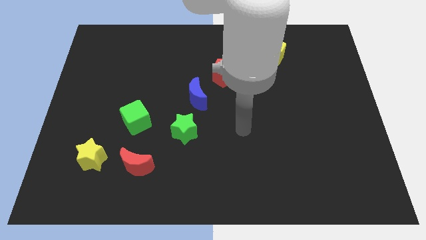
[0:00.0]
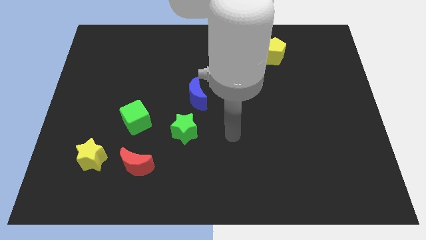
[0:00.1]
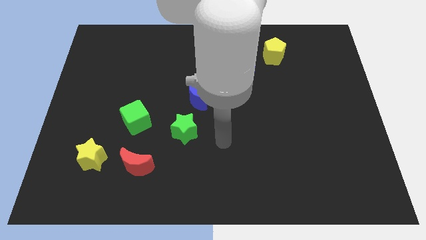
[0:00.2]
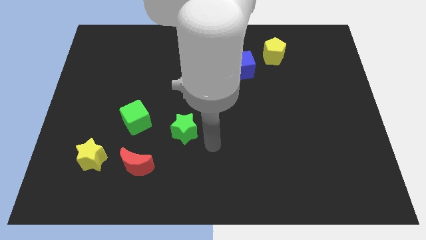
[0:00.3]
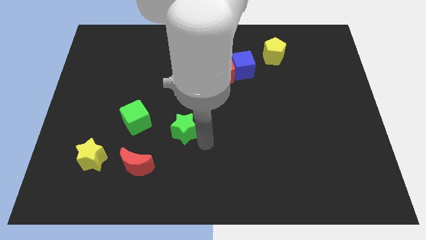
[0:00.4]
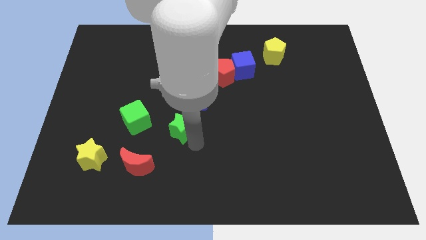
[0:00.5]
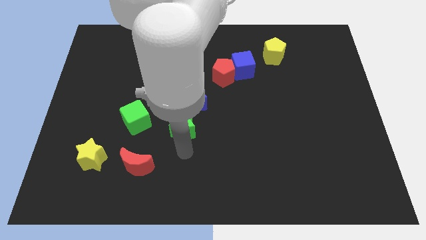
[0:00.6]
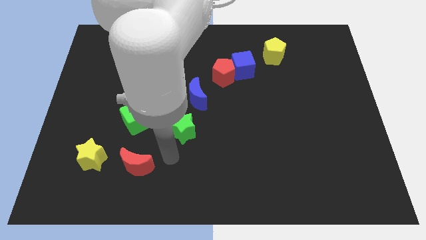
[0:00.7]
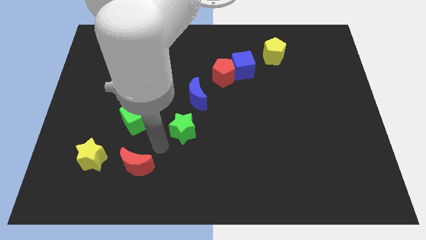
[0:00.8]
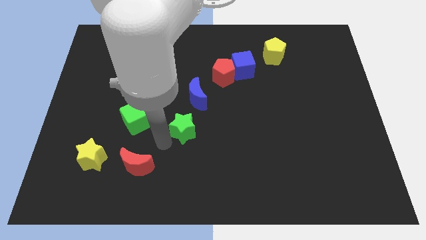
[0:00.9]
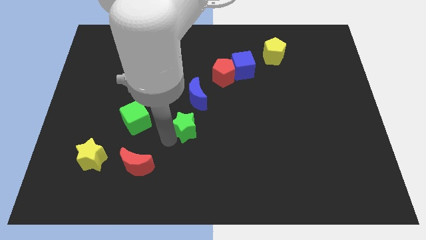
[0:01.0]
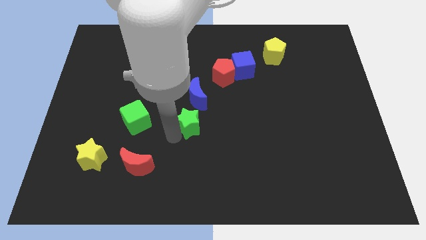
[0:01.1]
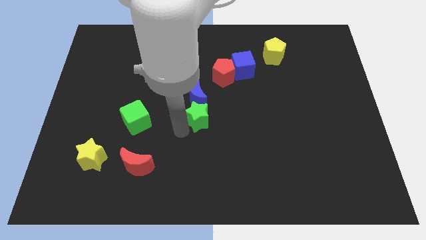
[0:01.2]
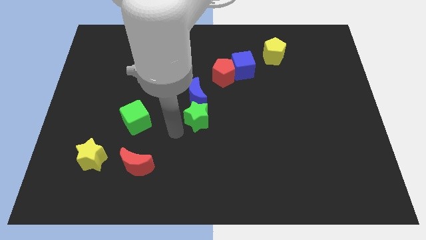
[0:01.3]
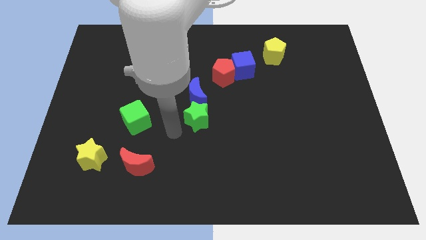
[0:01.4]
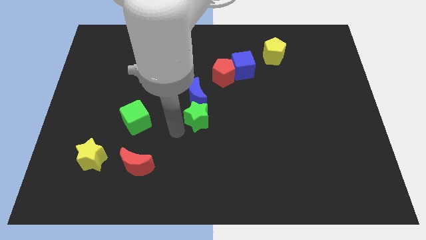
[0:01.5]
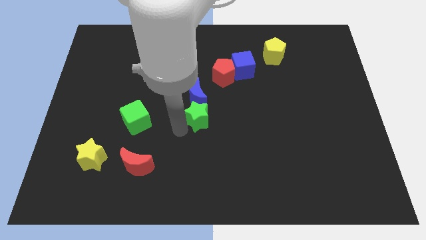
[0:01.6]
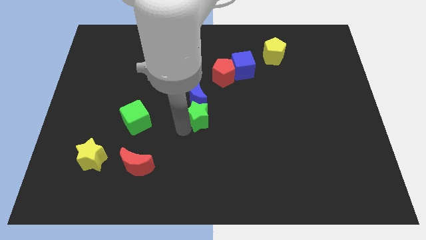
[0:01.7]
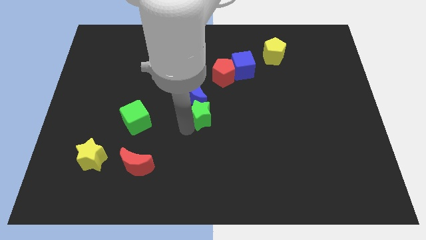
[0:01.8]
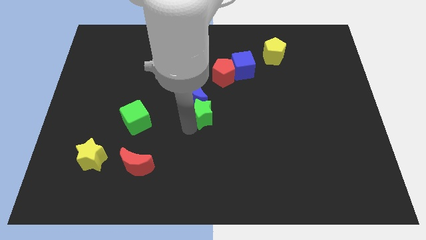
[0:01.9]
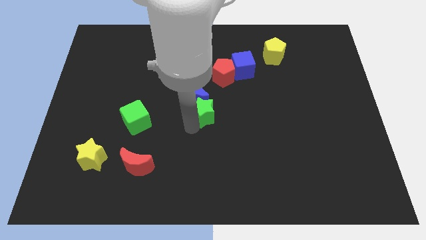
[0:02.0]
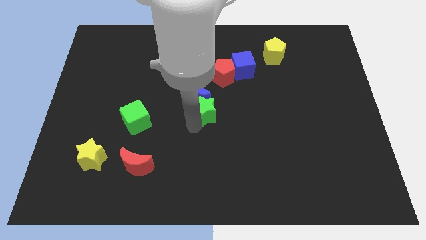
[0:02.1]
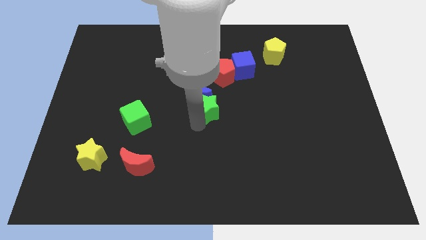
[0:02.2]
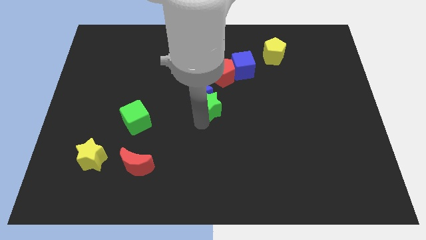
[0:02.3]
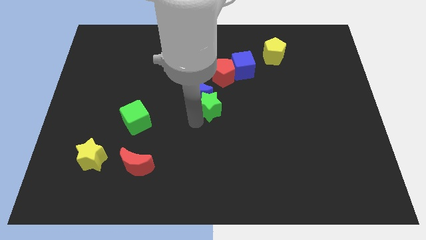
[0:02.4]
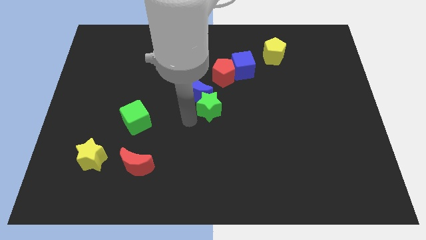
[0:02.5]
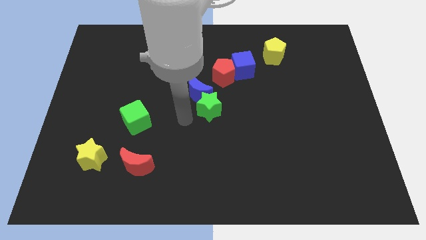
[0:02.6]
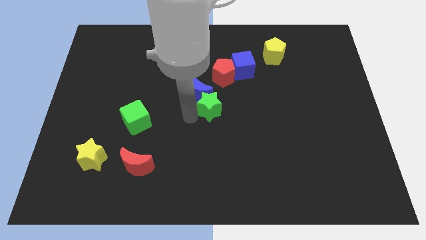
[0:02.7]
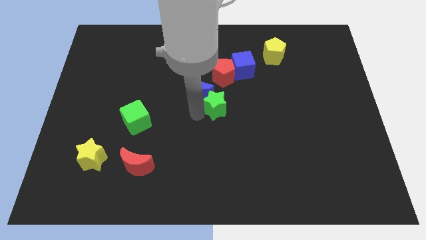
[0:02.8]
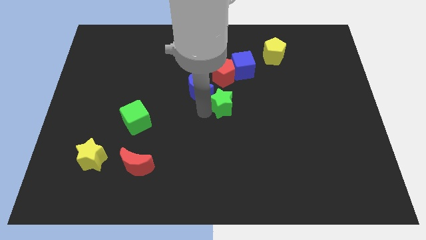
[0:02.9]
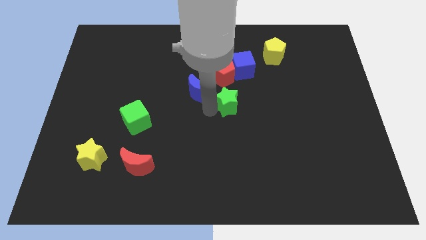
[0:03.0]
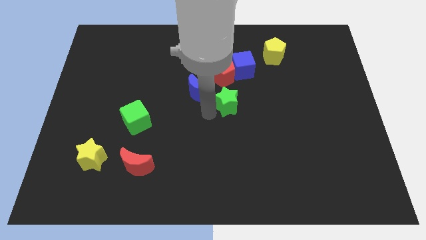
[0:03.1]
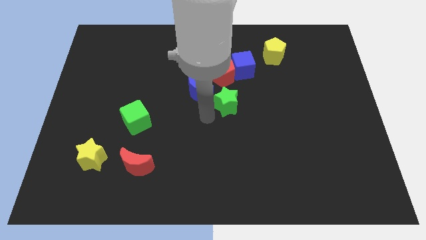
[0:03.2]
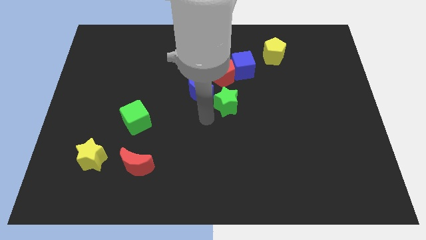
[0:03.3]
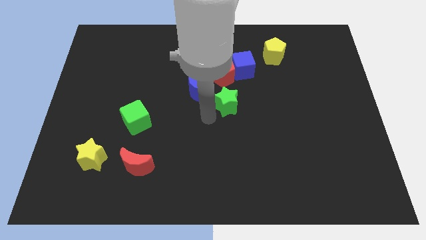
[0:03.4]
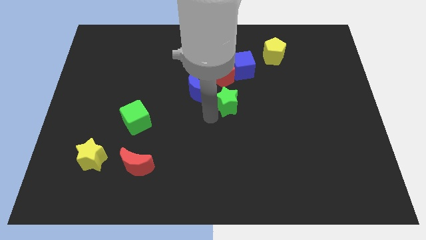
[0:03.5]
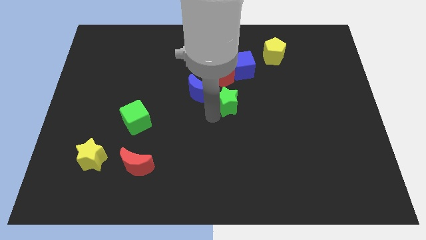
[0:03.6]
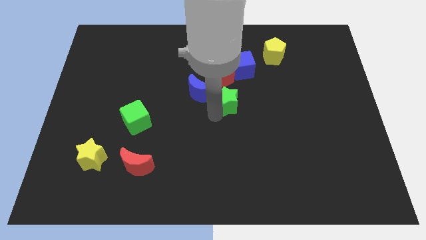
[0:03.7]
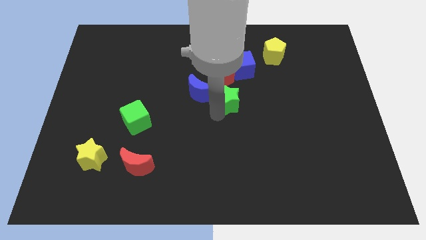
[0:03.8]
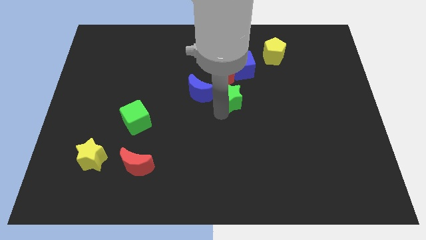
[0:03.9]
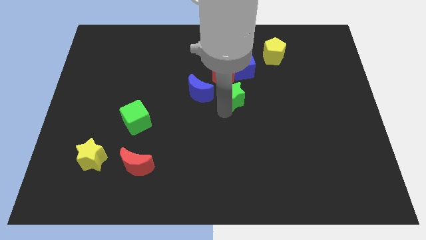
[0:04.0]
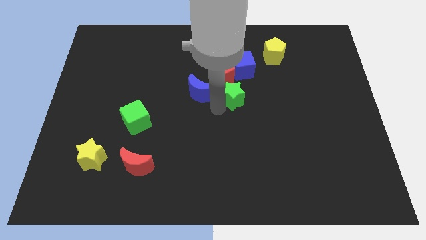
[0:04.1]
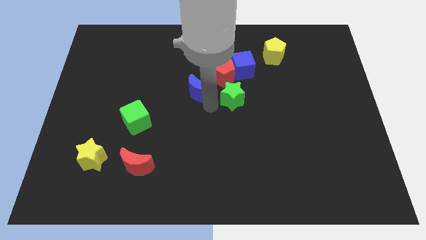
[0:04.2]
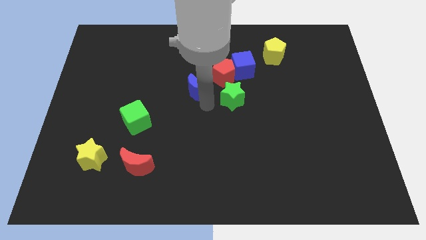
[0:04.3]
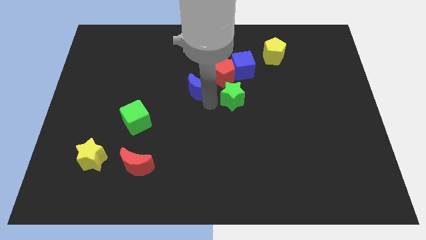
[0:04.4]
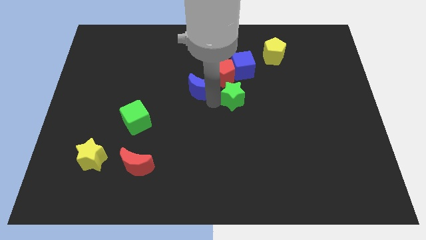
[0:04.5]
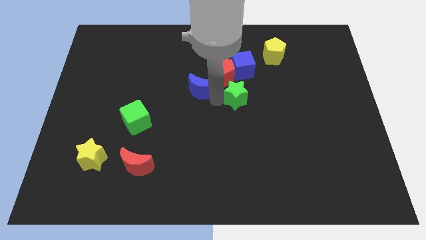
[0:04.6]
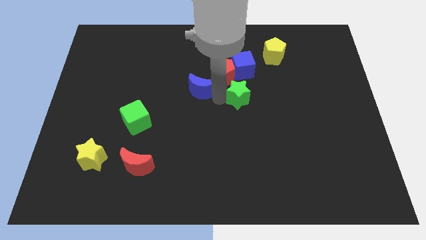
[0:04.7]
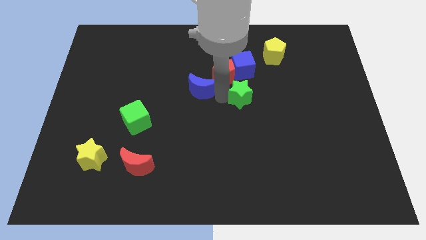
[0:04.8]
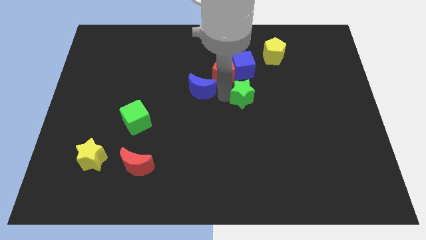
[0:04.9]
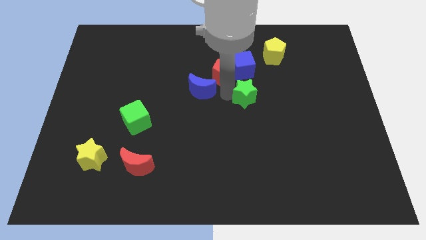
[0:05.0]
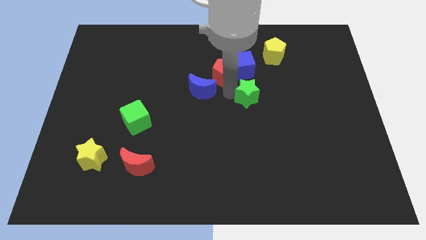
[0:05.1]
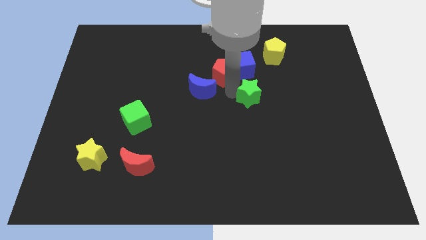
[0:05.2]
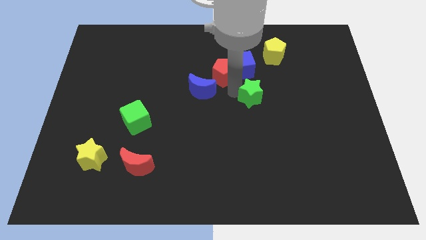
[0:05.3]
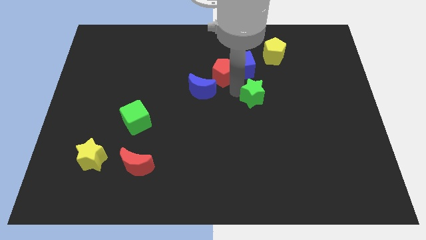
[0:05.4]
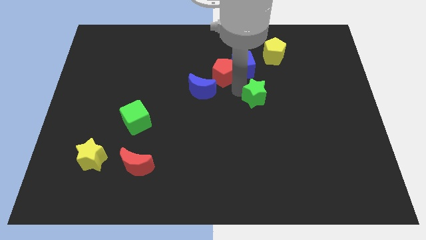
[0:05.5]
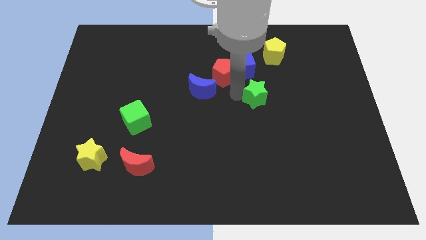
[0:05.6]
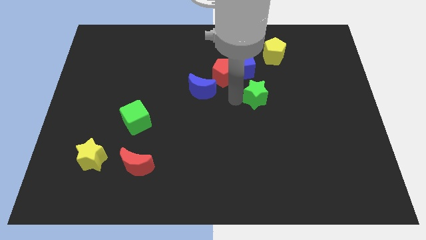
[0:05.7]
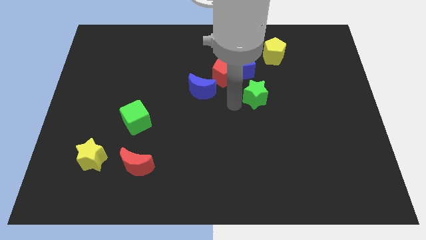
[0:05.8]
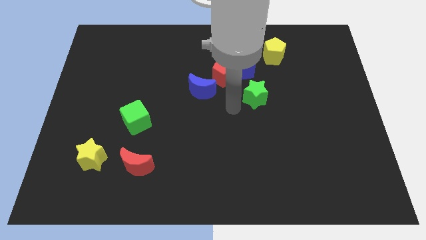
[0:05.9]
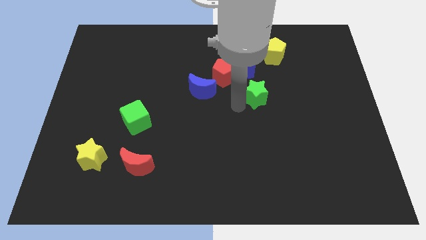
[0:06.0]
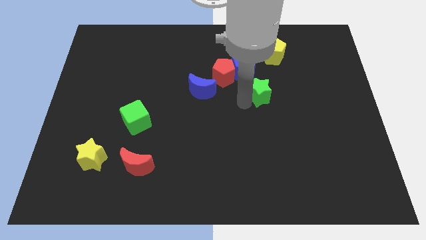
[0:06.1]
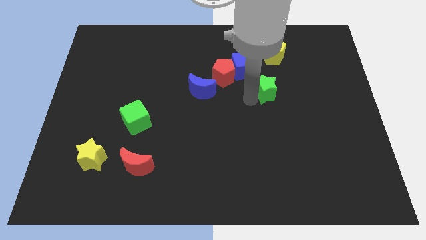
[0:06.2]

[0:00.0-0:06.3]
move the green star to the bottom side of the yellow pentagon

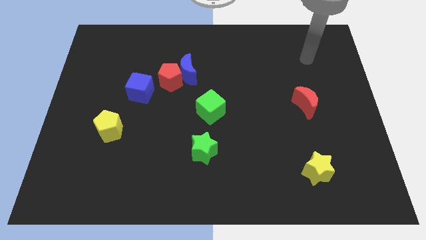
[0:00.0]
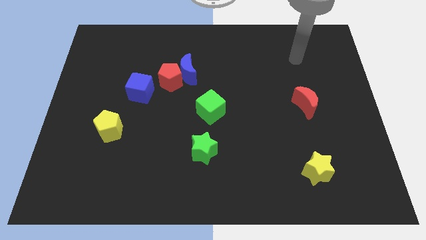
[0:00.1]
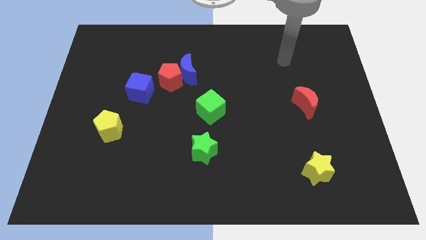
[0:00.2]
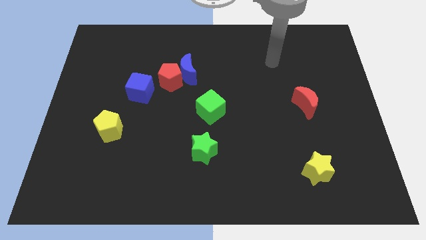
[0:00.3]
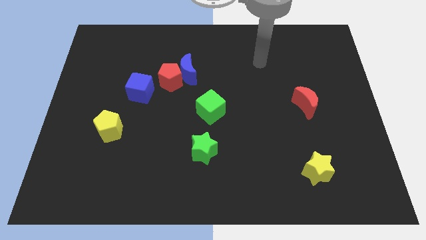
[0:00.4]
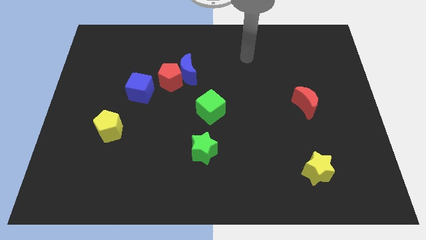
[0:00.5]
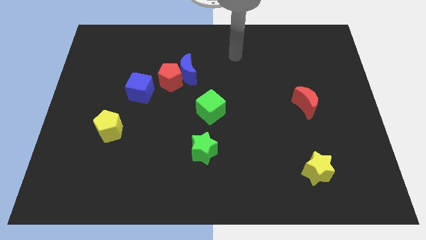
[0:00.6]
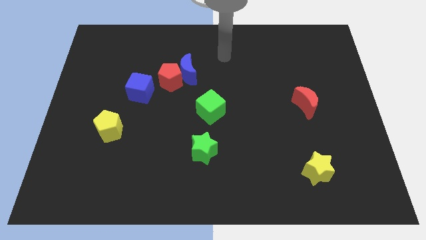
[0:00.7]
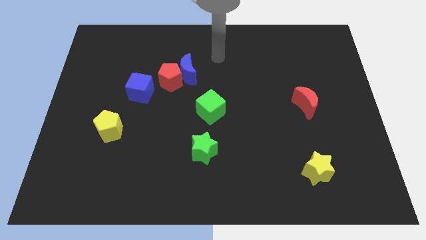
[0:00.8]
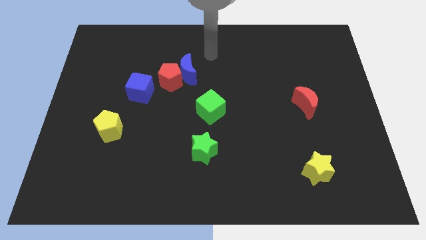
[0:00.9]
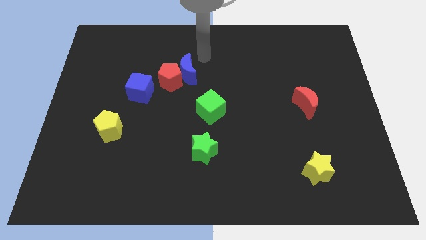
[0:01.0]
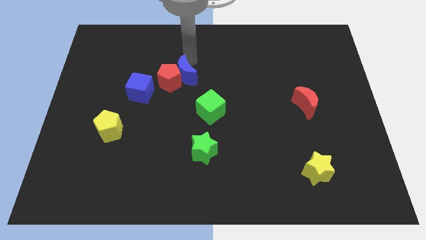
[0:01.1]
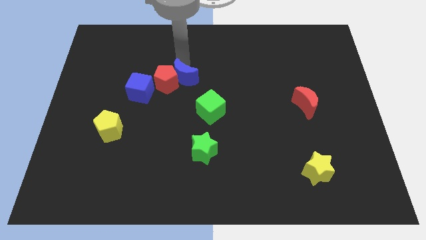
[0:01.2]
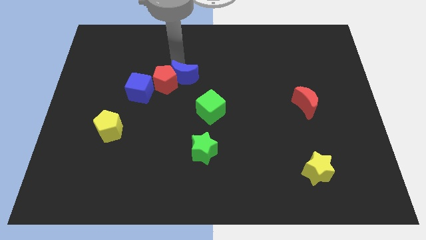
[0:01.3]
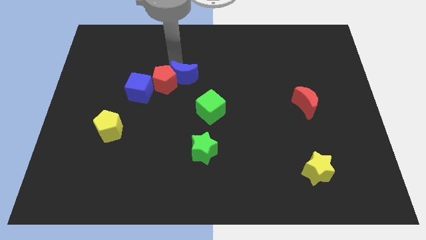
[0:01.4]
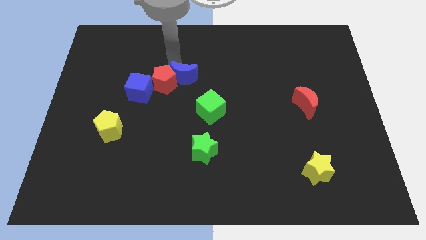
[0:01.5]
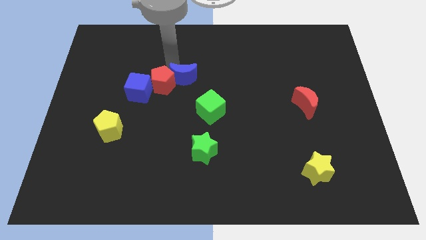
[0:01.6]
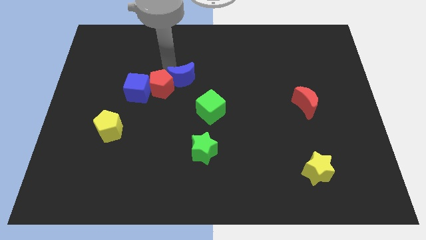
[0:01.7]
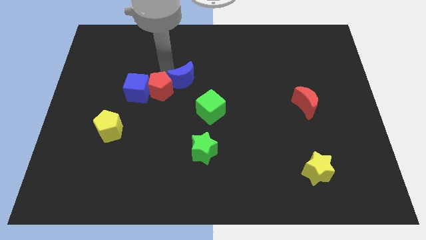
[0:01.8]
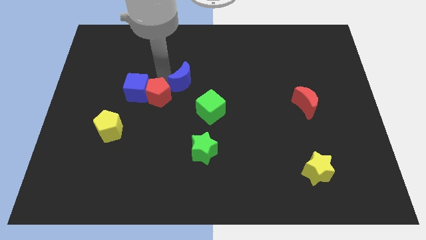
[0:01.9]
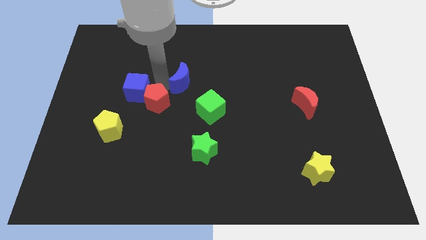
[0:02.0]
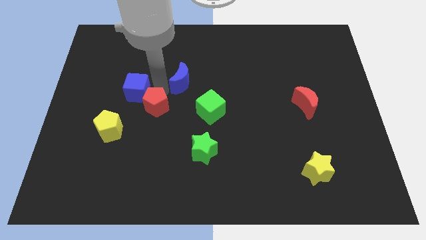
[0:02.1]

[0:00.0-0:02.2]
push the red pentagon below the blue cube
